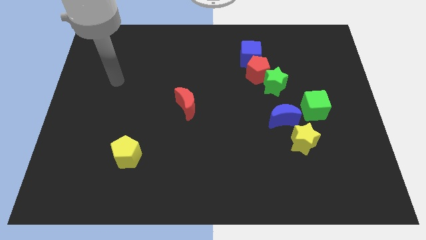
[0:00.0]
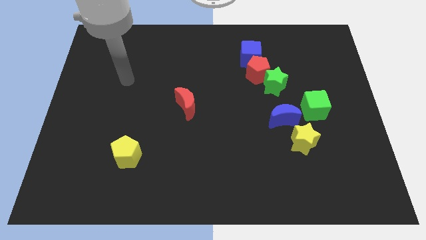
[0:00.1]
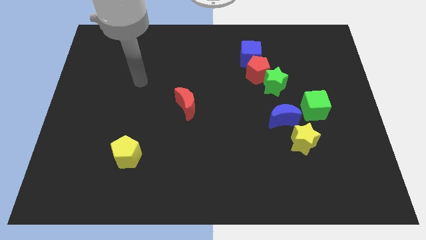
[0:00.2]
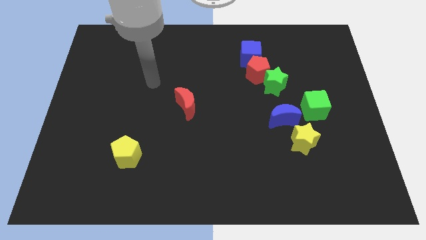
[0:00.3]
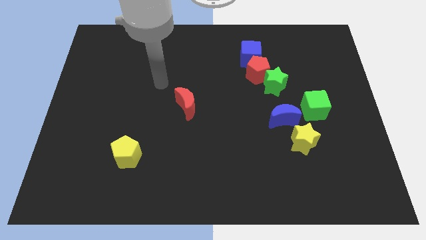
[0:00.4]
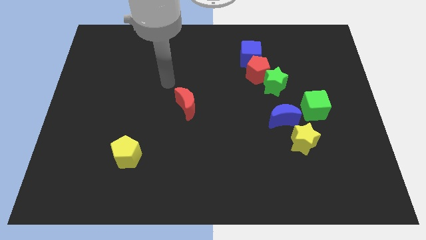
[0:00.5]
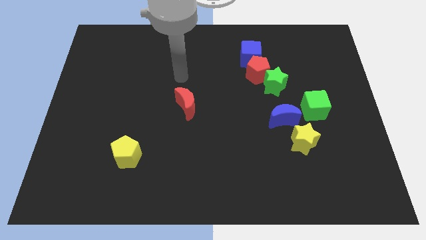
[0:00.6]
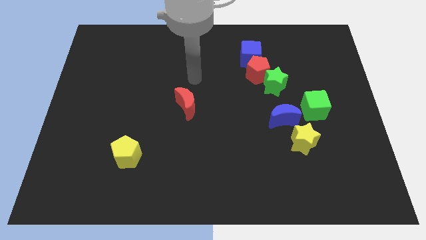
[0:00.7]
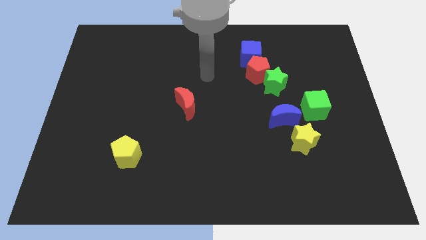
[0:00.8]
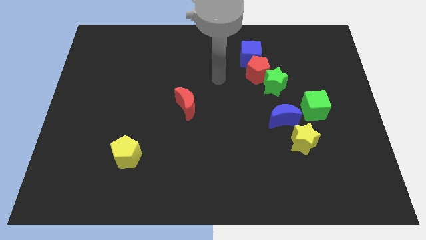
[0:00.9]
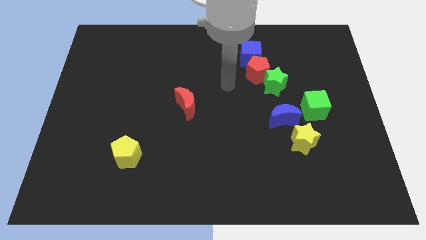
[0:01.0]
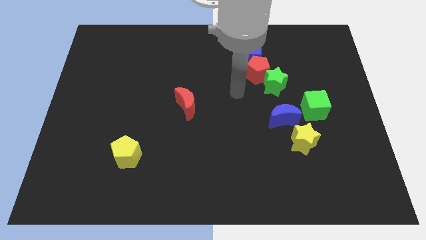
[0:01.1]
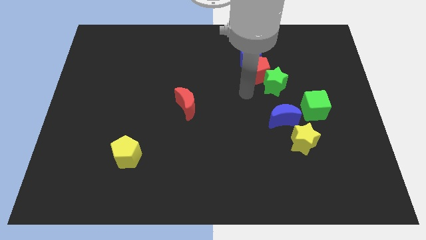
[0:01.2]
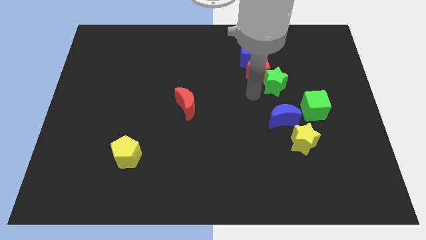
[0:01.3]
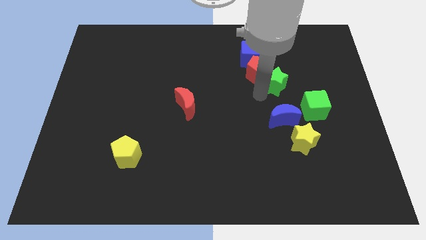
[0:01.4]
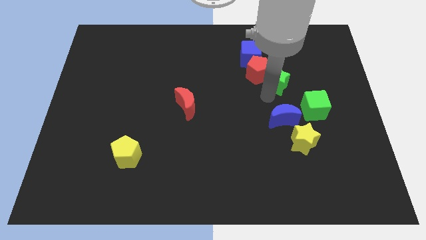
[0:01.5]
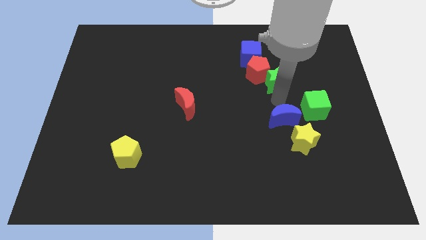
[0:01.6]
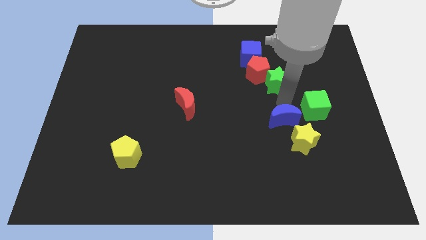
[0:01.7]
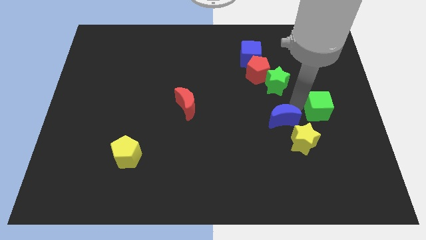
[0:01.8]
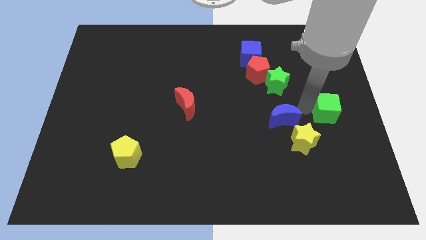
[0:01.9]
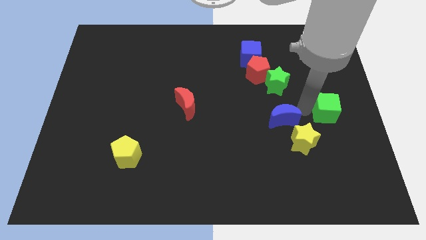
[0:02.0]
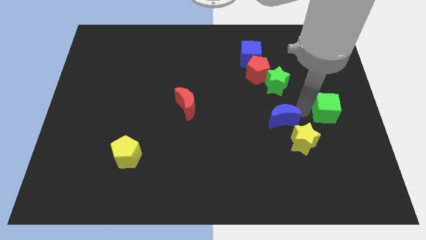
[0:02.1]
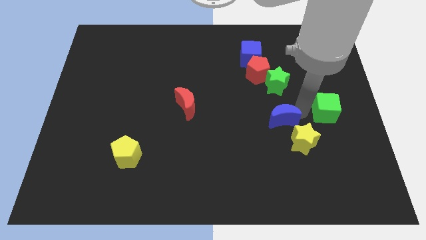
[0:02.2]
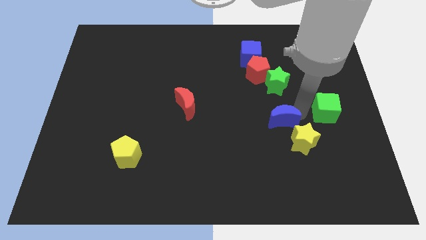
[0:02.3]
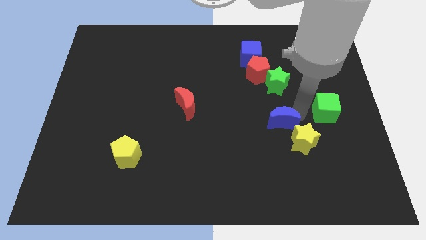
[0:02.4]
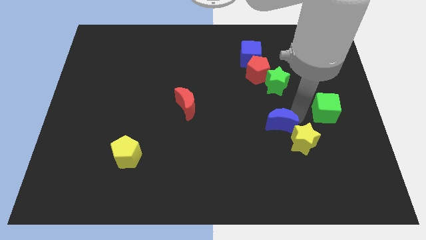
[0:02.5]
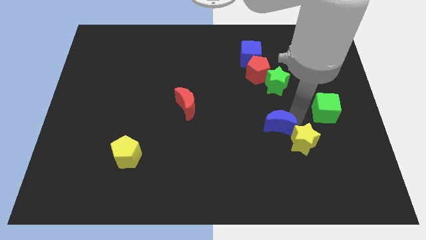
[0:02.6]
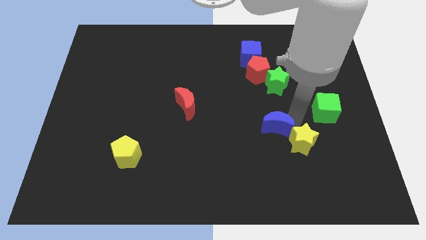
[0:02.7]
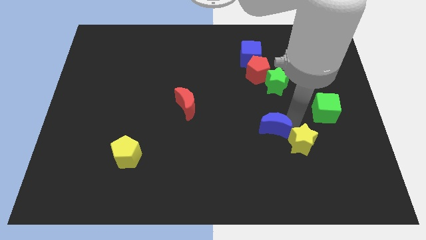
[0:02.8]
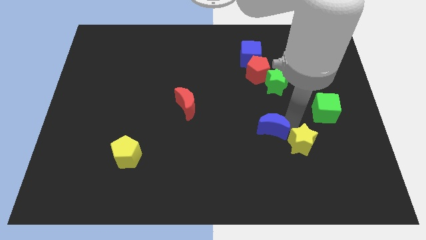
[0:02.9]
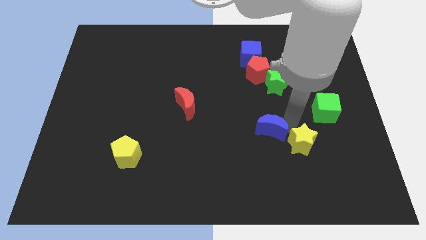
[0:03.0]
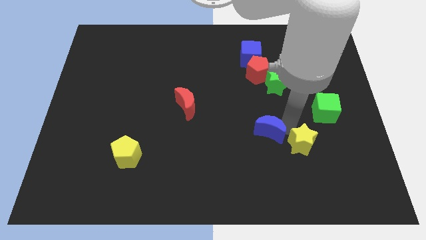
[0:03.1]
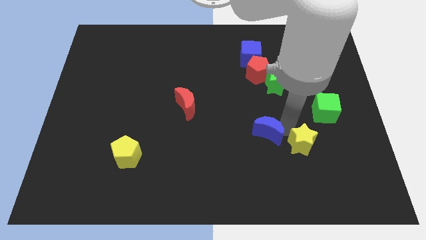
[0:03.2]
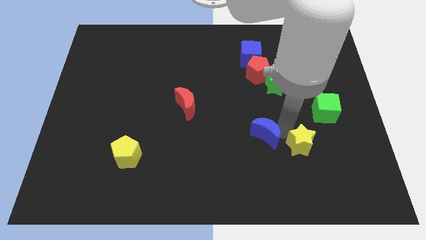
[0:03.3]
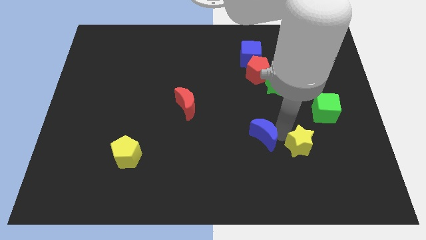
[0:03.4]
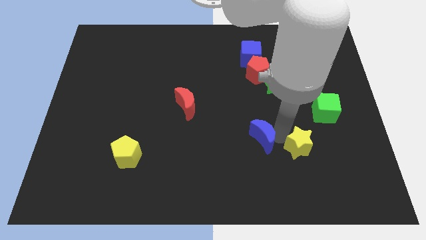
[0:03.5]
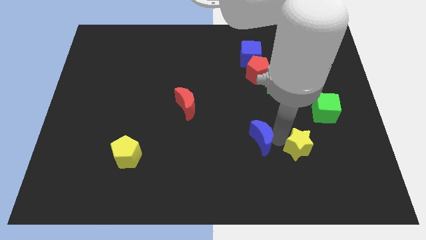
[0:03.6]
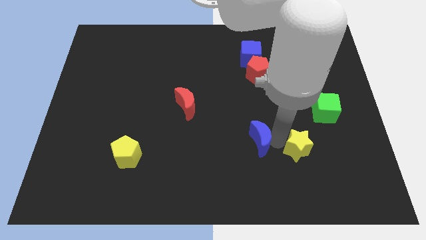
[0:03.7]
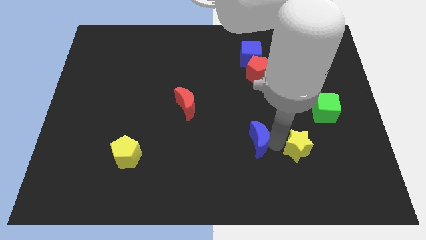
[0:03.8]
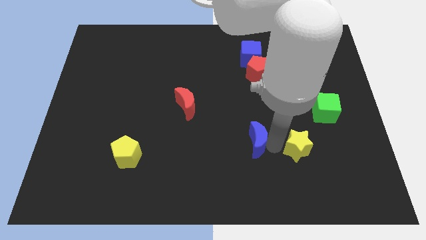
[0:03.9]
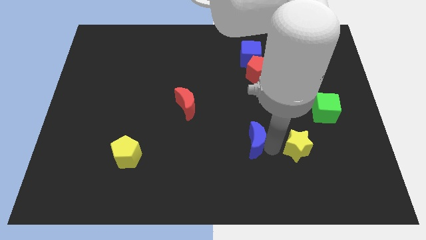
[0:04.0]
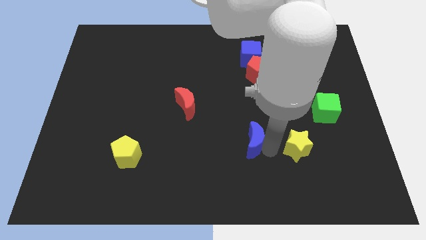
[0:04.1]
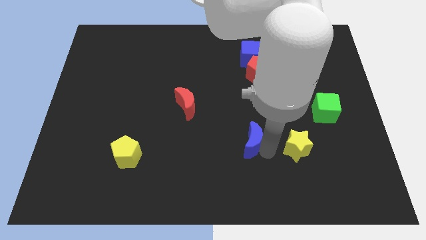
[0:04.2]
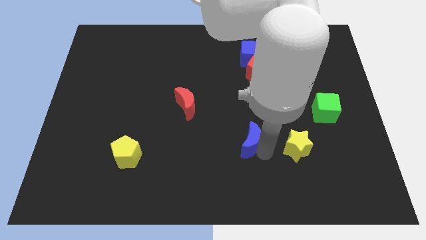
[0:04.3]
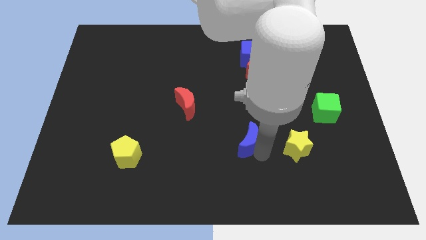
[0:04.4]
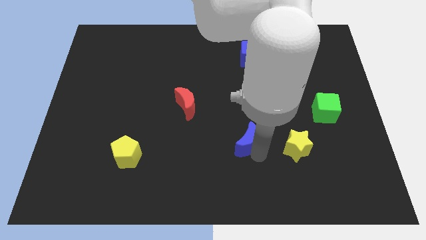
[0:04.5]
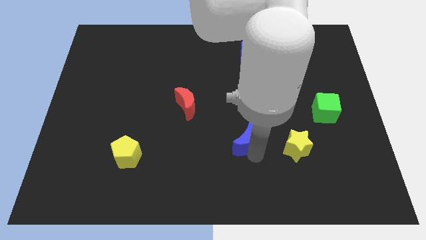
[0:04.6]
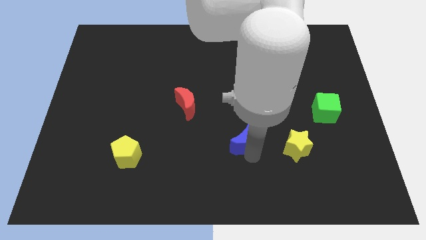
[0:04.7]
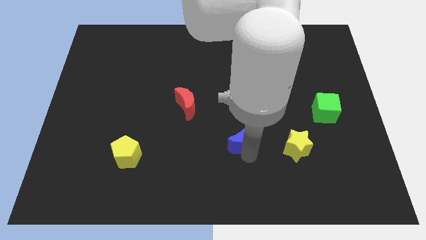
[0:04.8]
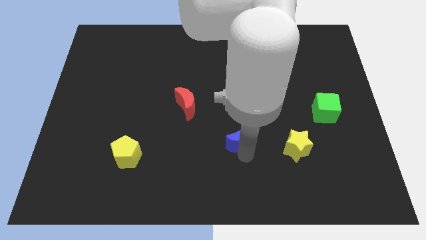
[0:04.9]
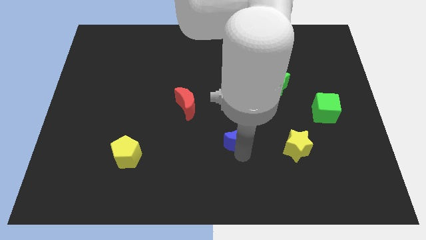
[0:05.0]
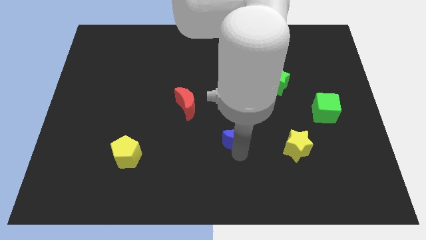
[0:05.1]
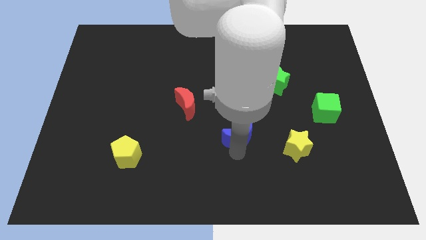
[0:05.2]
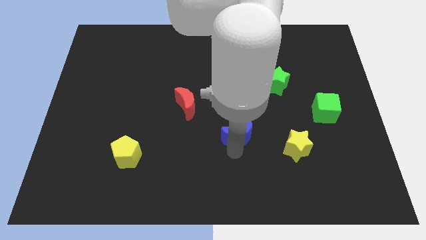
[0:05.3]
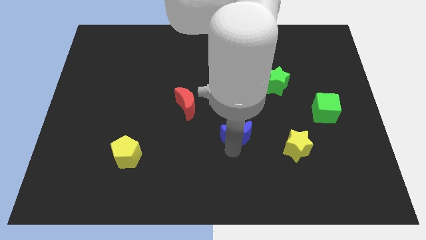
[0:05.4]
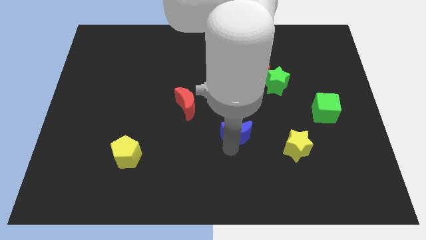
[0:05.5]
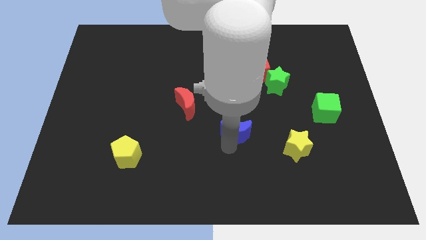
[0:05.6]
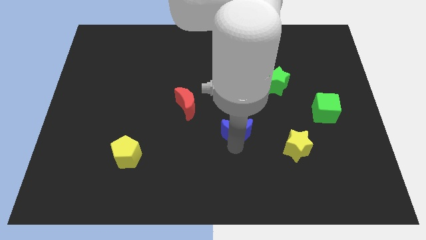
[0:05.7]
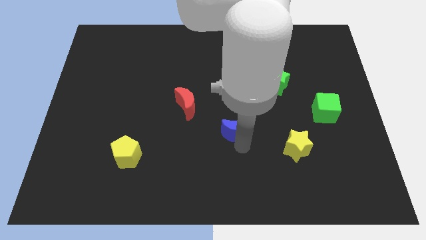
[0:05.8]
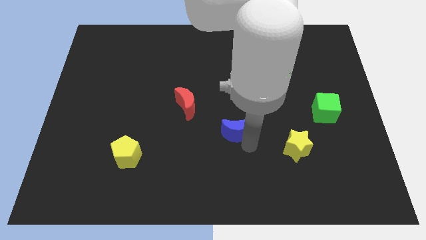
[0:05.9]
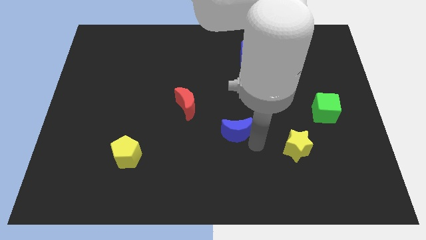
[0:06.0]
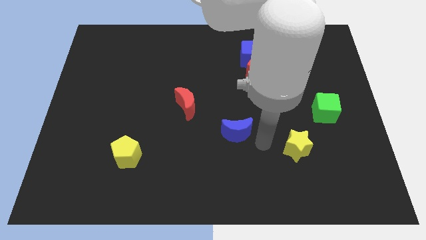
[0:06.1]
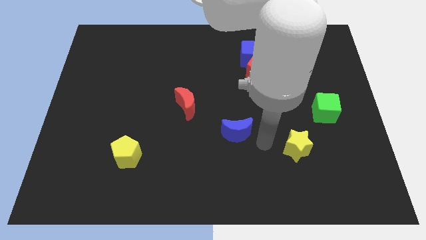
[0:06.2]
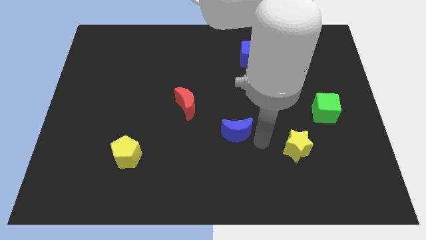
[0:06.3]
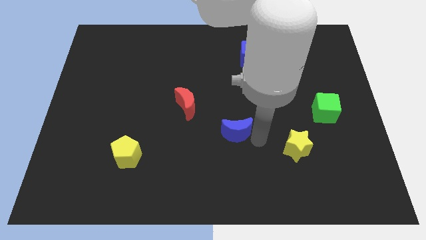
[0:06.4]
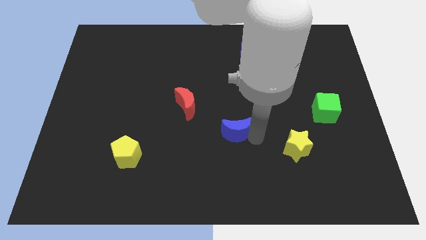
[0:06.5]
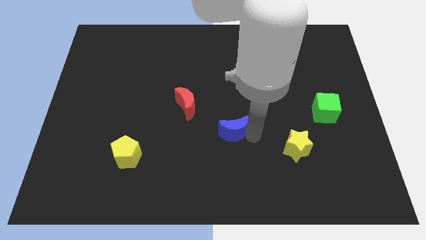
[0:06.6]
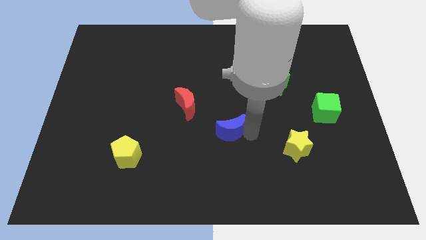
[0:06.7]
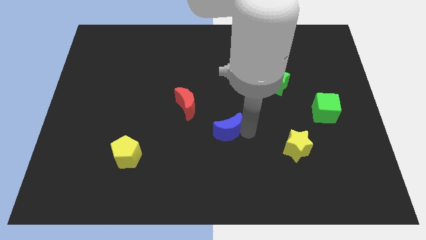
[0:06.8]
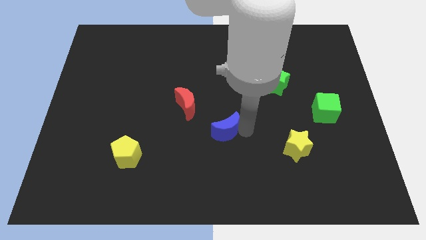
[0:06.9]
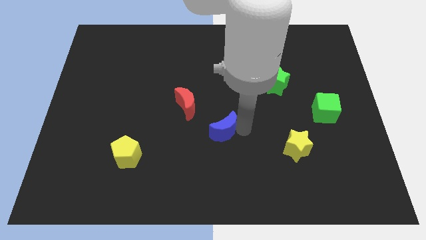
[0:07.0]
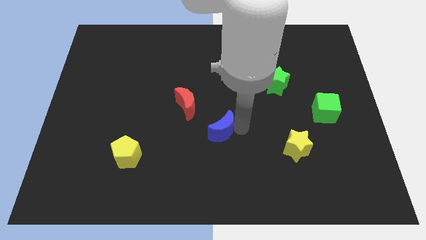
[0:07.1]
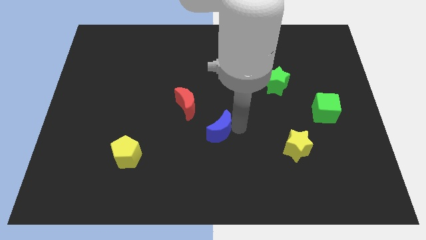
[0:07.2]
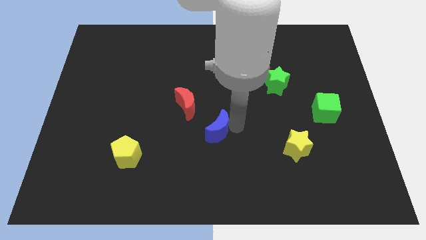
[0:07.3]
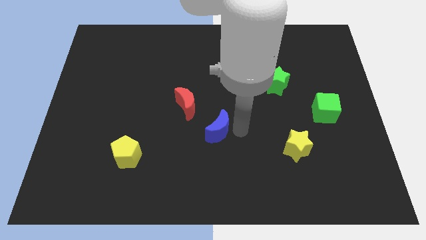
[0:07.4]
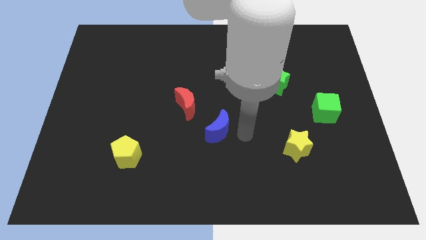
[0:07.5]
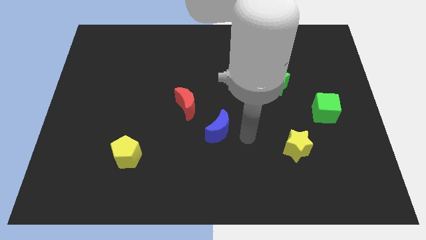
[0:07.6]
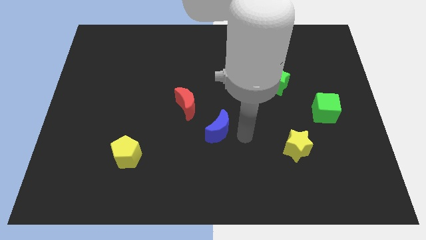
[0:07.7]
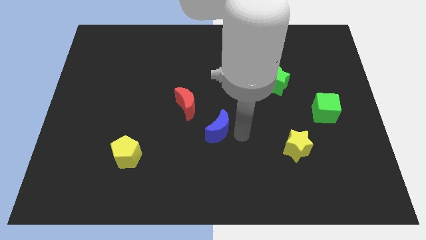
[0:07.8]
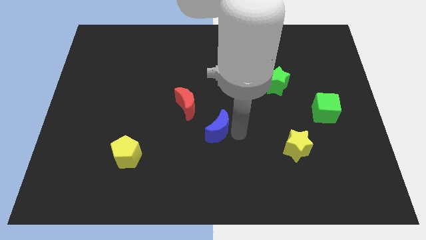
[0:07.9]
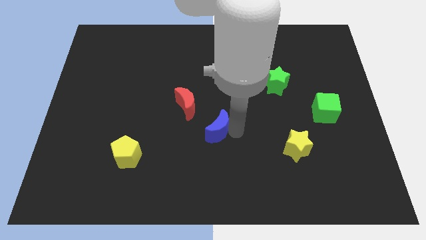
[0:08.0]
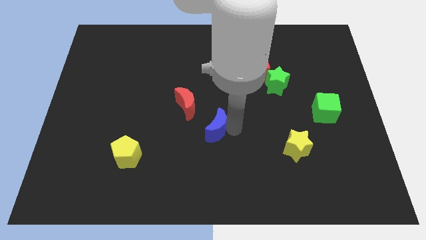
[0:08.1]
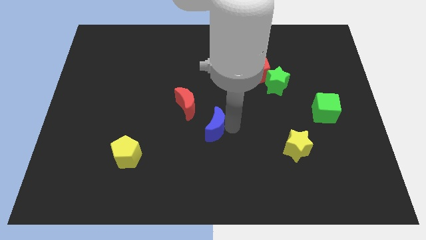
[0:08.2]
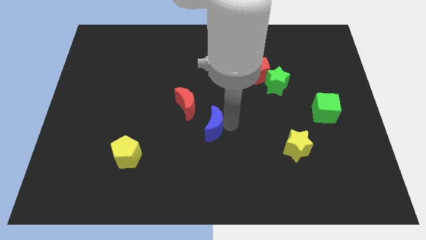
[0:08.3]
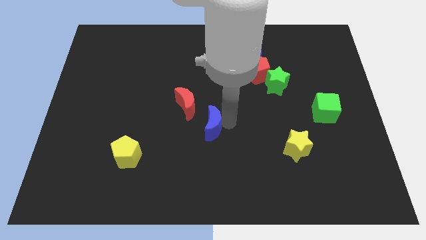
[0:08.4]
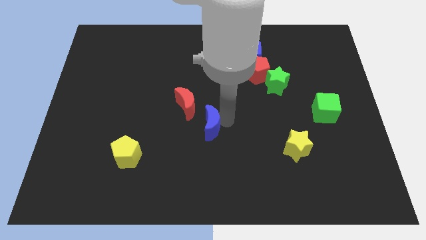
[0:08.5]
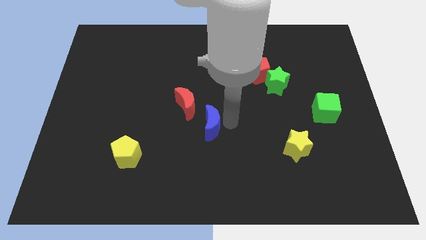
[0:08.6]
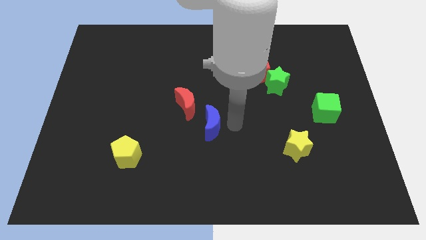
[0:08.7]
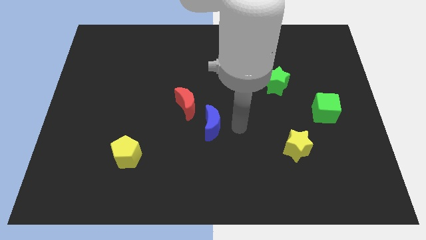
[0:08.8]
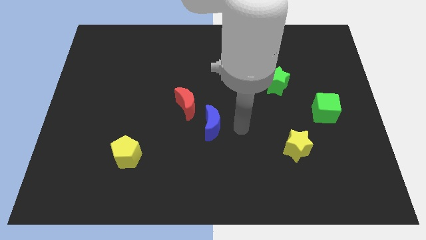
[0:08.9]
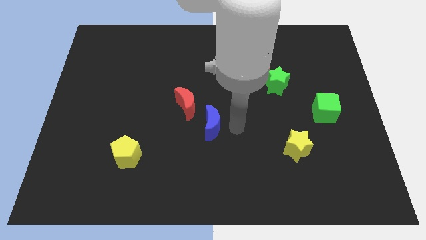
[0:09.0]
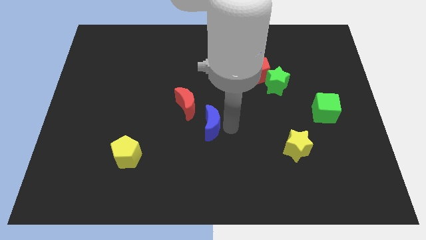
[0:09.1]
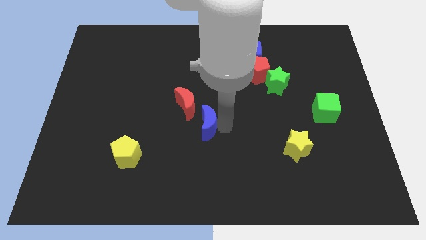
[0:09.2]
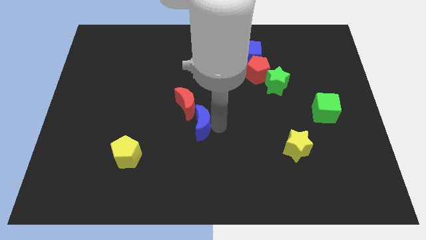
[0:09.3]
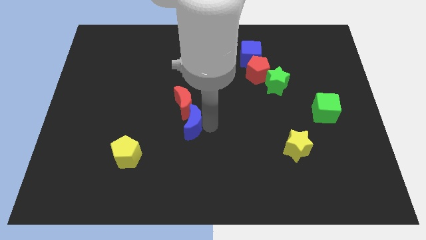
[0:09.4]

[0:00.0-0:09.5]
move the blue moon to the left
